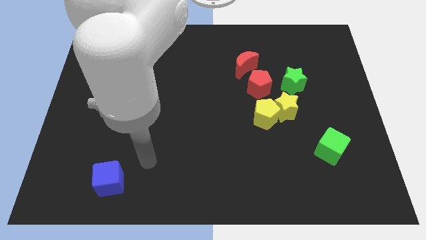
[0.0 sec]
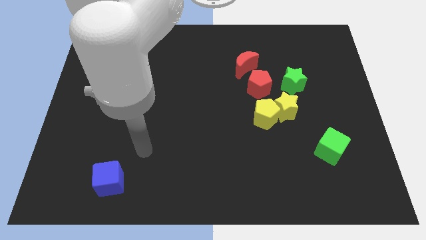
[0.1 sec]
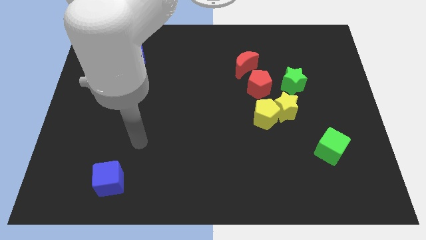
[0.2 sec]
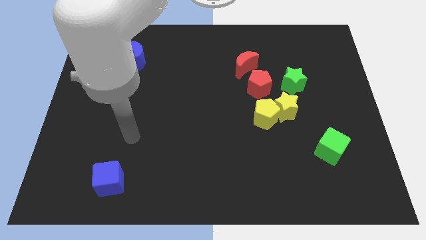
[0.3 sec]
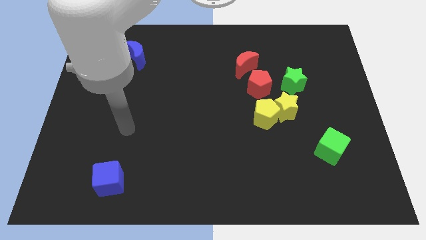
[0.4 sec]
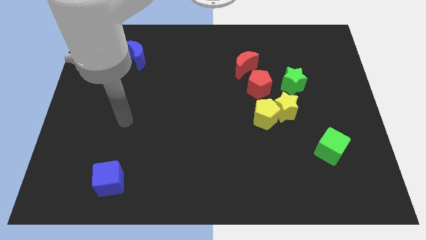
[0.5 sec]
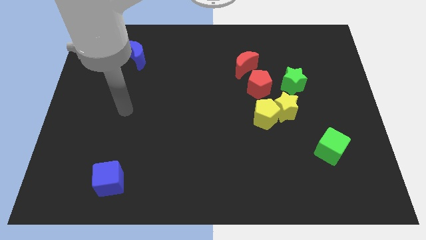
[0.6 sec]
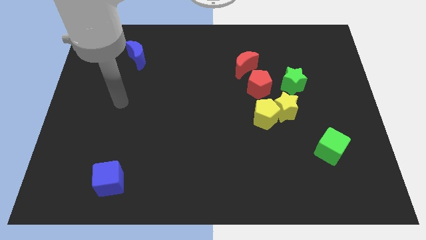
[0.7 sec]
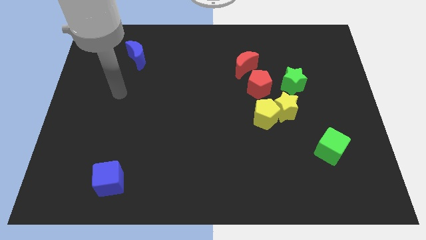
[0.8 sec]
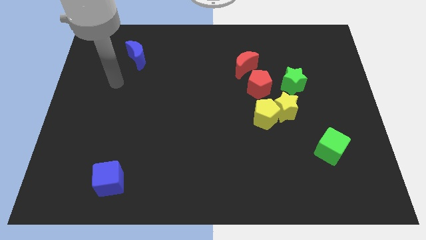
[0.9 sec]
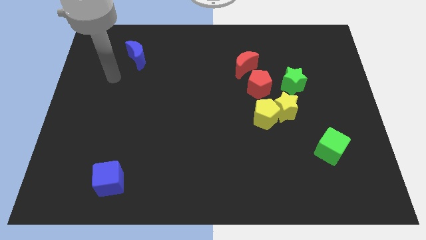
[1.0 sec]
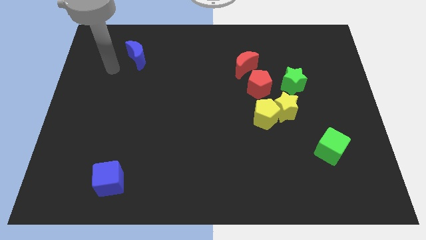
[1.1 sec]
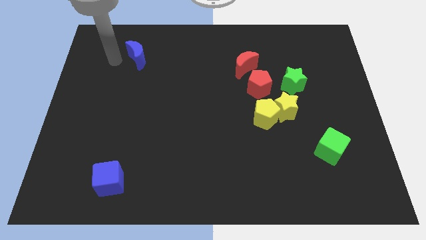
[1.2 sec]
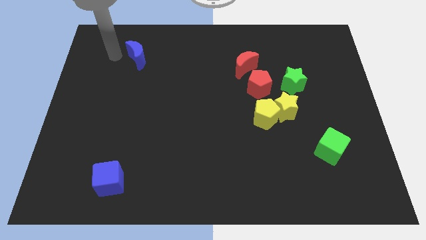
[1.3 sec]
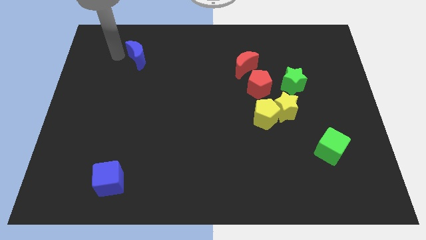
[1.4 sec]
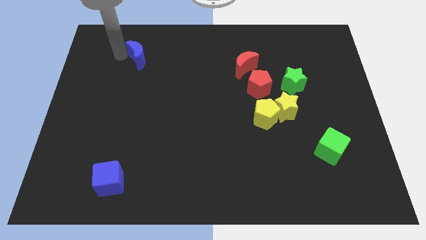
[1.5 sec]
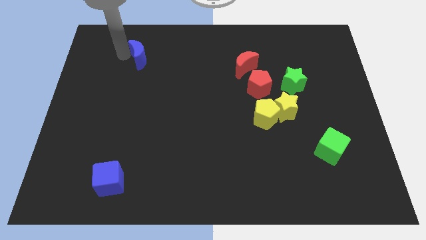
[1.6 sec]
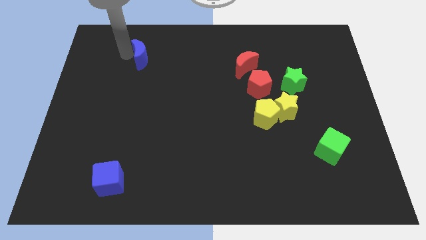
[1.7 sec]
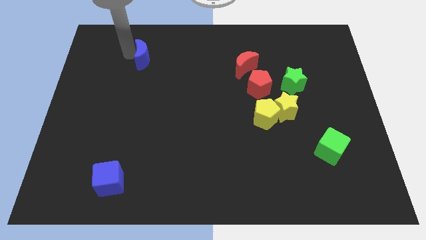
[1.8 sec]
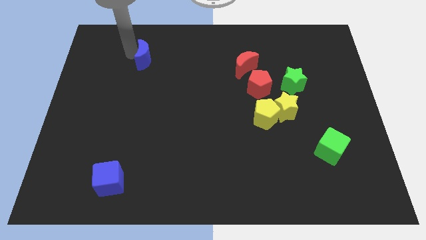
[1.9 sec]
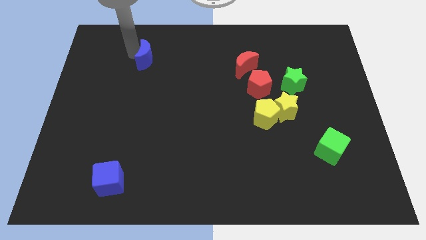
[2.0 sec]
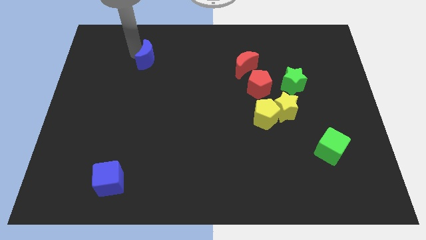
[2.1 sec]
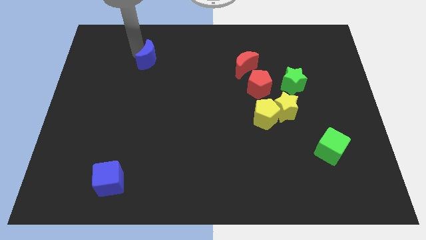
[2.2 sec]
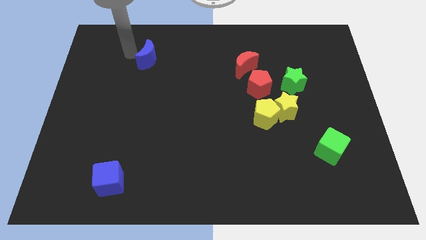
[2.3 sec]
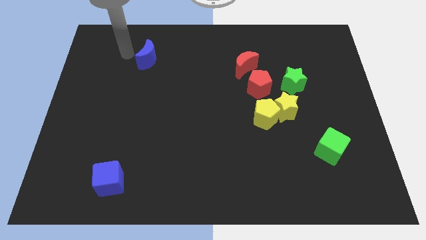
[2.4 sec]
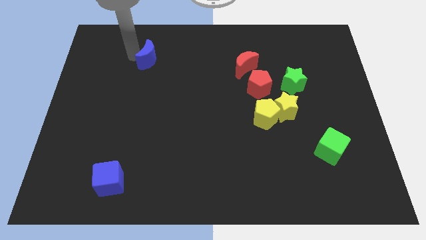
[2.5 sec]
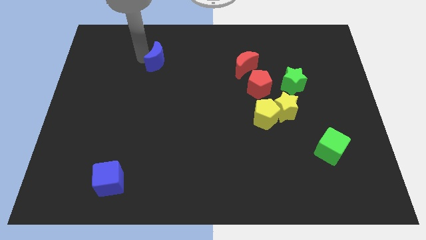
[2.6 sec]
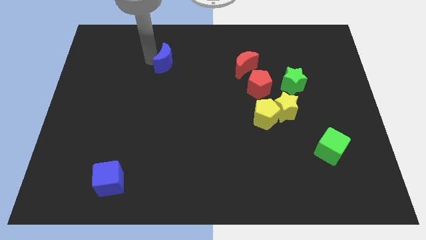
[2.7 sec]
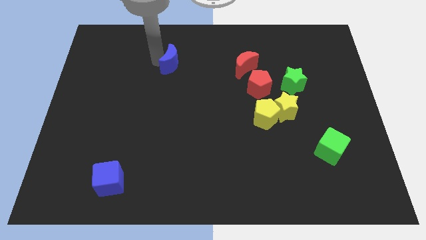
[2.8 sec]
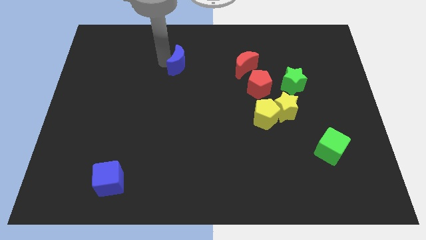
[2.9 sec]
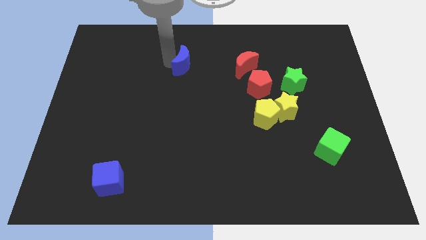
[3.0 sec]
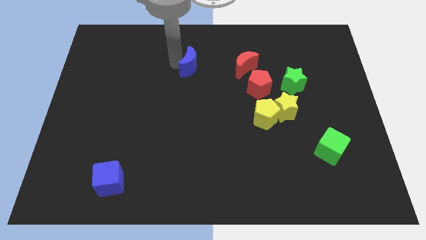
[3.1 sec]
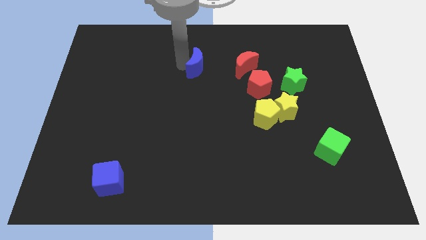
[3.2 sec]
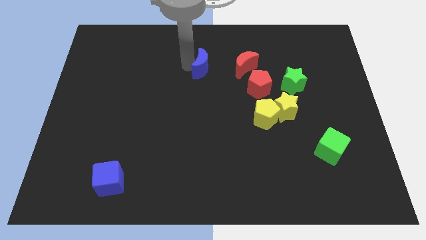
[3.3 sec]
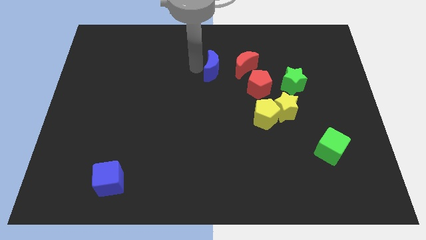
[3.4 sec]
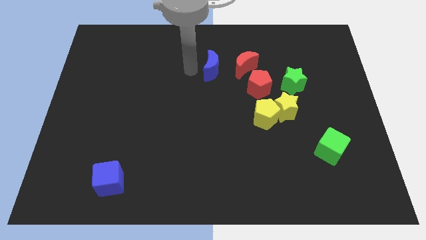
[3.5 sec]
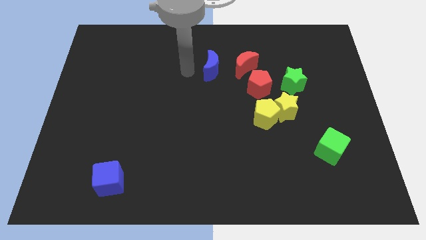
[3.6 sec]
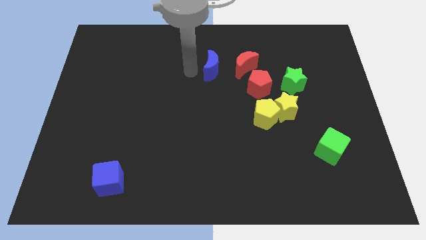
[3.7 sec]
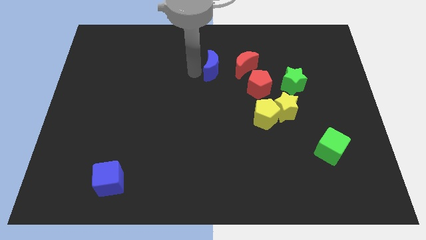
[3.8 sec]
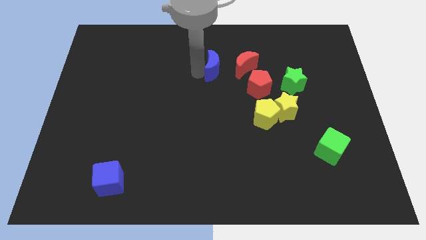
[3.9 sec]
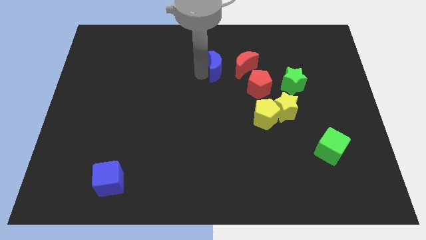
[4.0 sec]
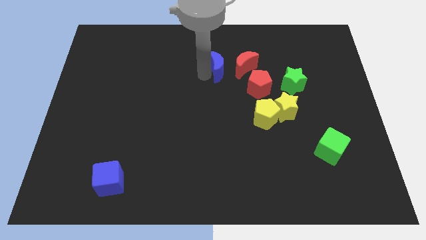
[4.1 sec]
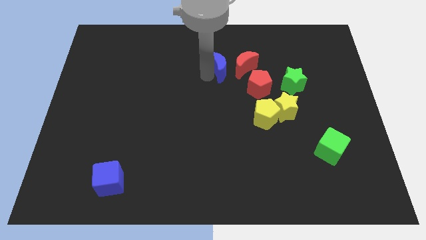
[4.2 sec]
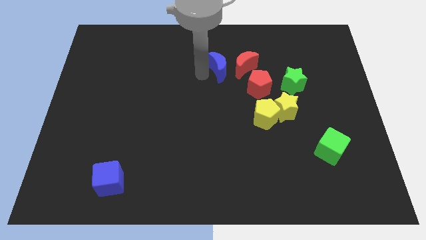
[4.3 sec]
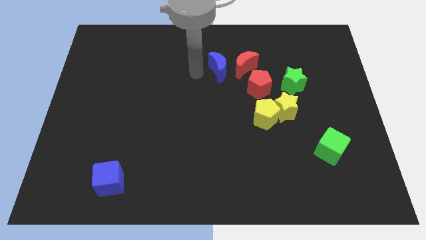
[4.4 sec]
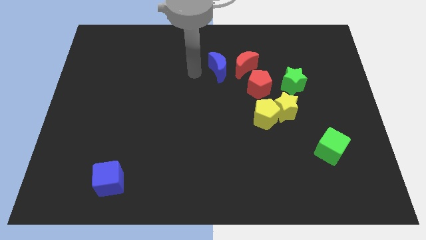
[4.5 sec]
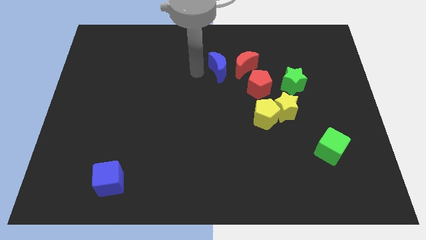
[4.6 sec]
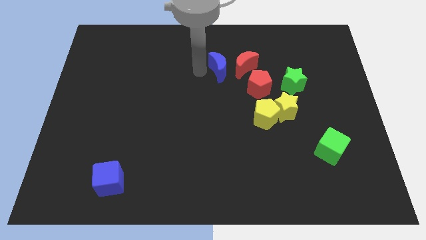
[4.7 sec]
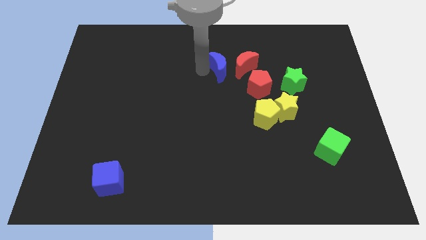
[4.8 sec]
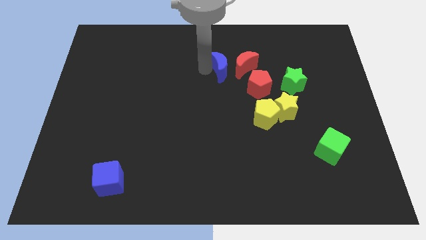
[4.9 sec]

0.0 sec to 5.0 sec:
put the blue moon next to the red moon

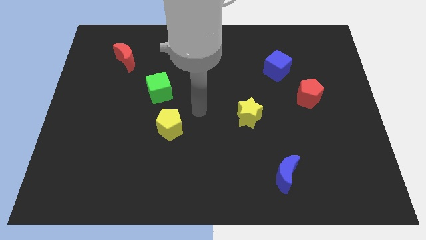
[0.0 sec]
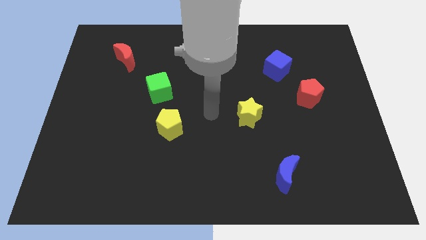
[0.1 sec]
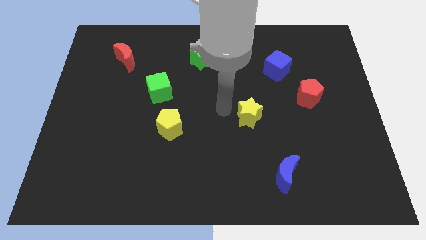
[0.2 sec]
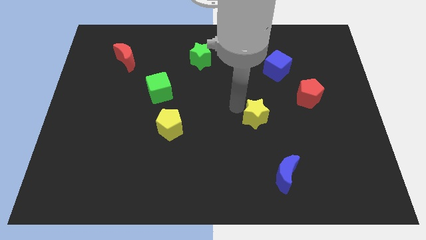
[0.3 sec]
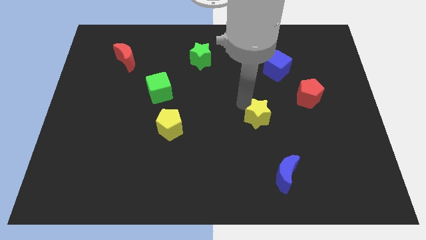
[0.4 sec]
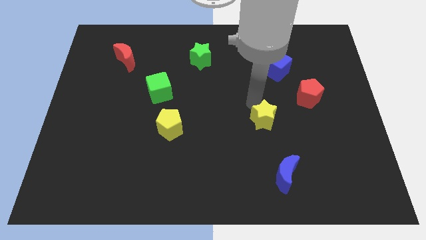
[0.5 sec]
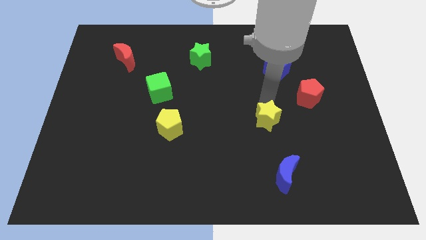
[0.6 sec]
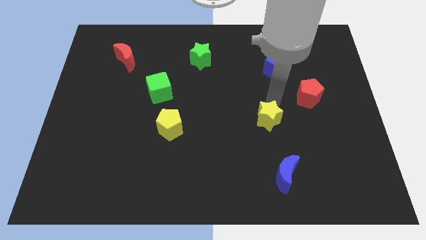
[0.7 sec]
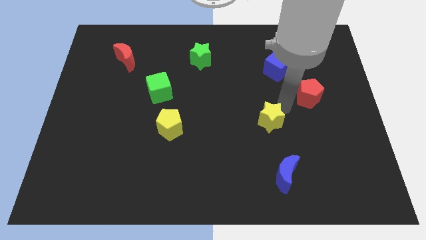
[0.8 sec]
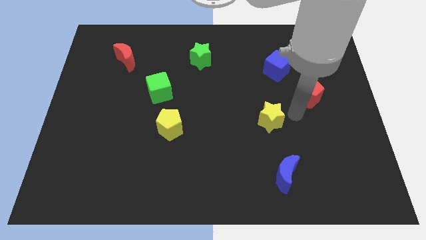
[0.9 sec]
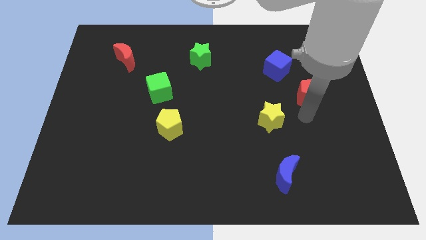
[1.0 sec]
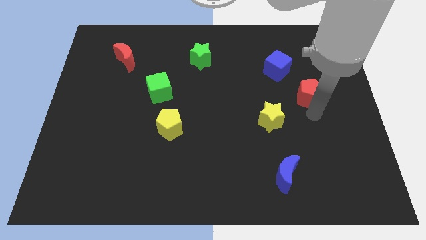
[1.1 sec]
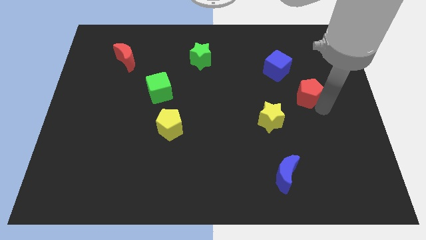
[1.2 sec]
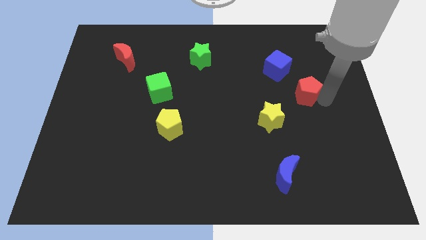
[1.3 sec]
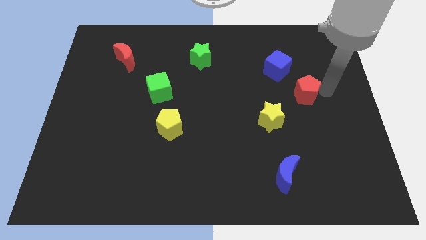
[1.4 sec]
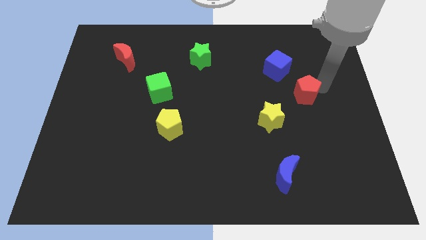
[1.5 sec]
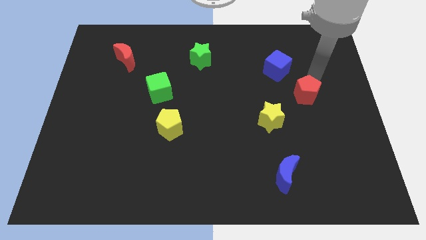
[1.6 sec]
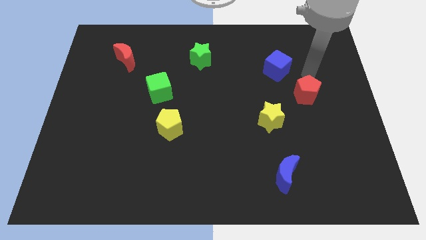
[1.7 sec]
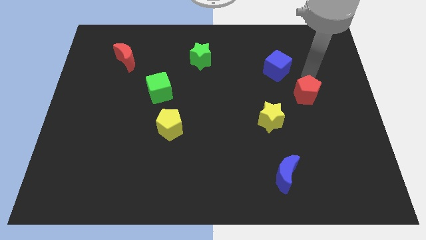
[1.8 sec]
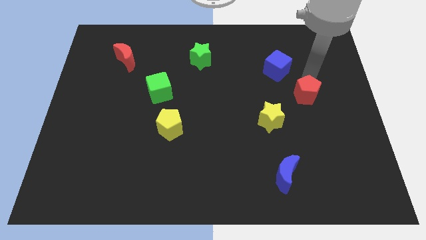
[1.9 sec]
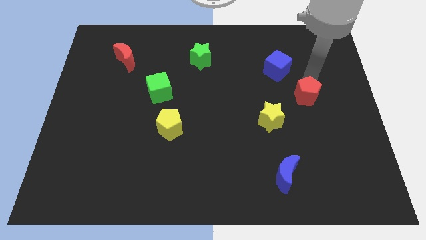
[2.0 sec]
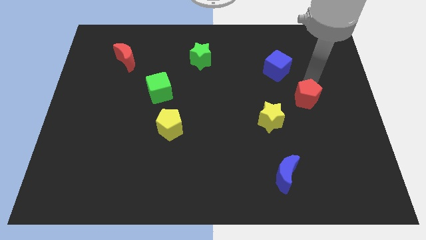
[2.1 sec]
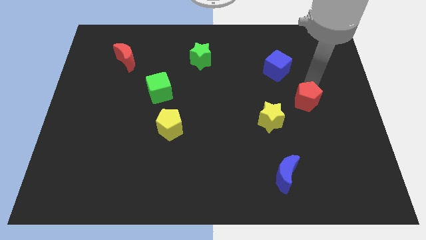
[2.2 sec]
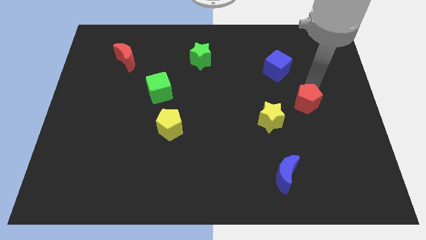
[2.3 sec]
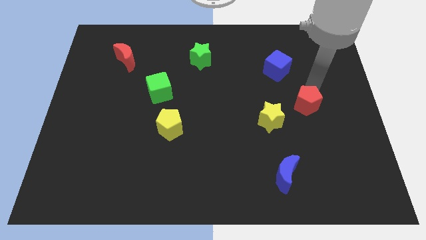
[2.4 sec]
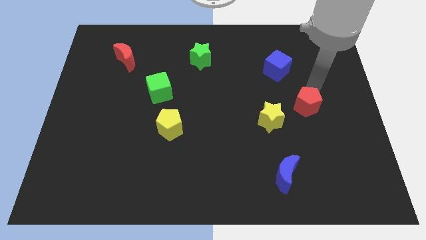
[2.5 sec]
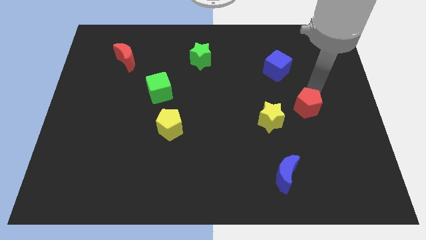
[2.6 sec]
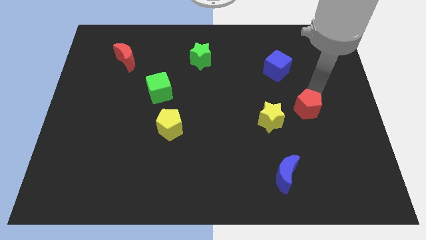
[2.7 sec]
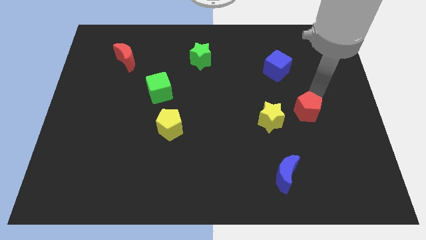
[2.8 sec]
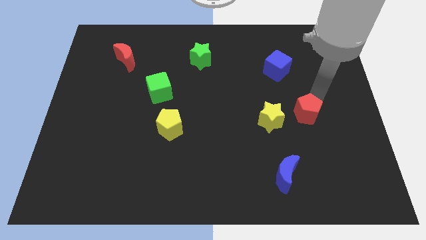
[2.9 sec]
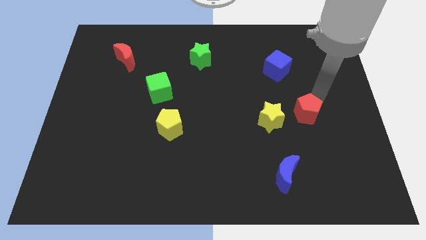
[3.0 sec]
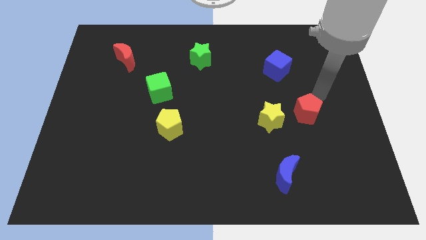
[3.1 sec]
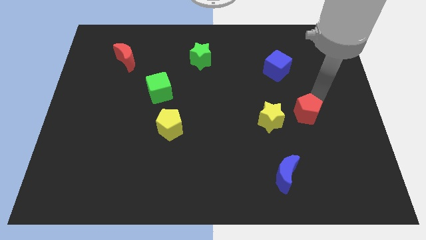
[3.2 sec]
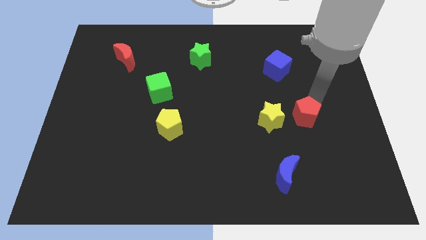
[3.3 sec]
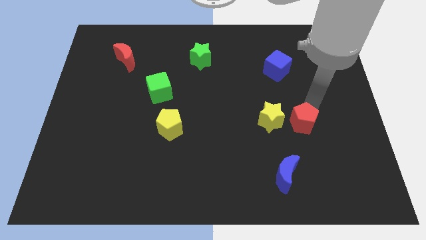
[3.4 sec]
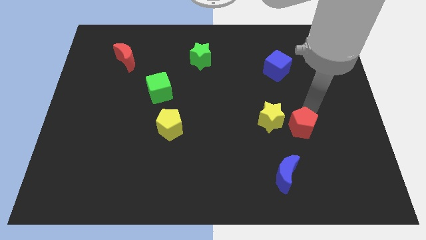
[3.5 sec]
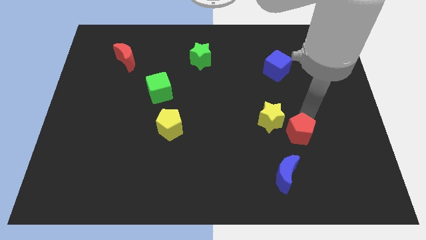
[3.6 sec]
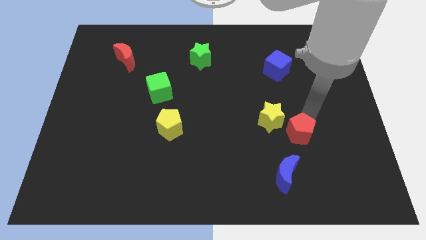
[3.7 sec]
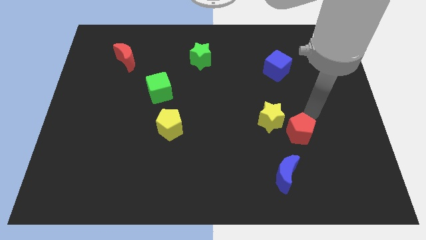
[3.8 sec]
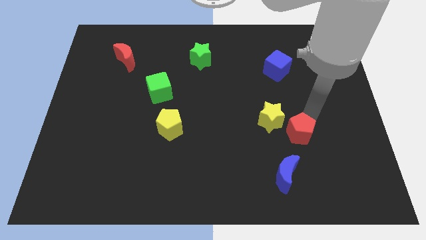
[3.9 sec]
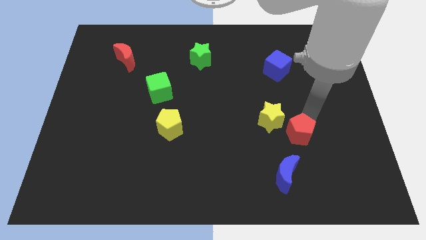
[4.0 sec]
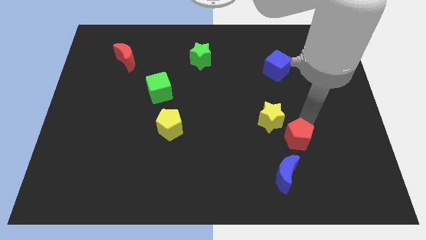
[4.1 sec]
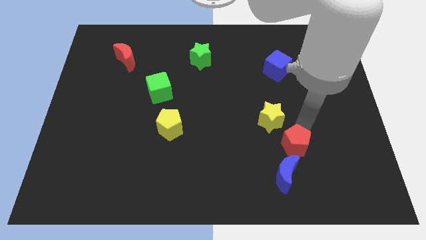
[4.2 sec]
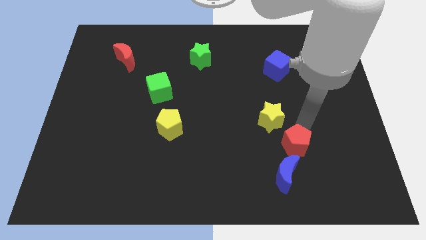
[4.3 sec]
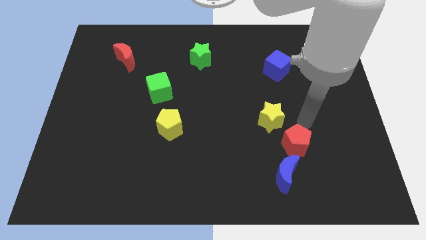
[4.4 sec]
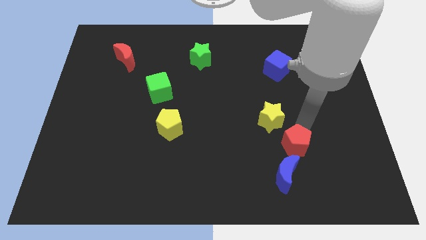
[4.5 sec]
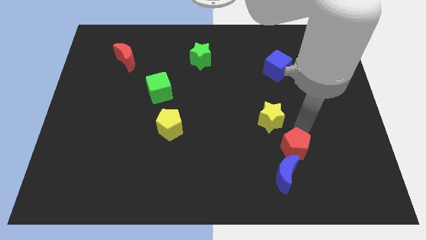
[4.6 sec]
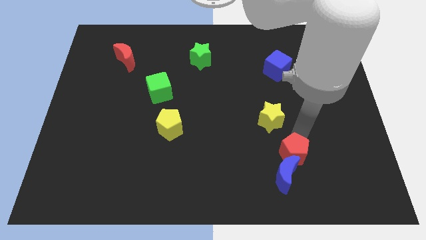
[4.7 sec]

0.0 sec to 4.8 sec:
slide the red pentagon towards the blue moon
